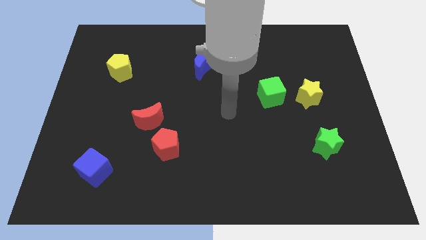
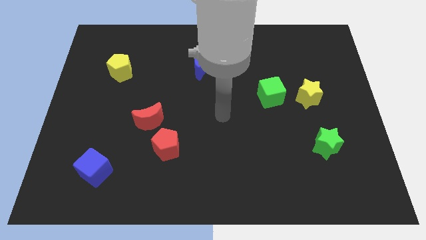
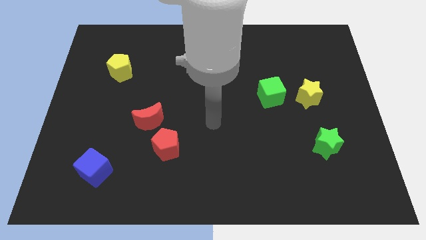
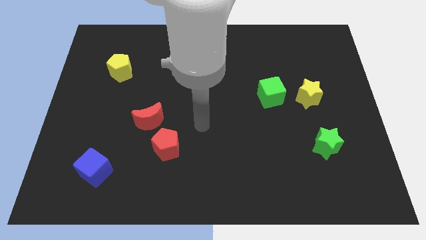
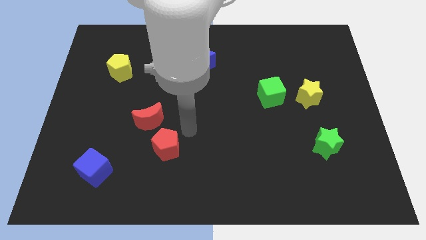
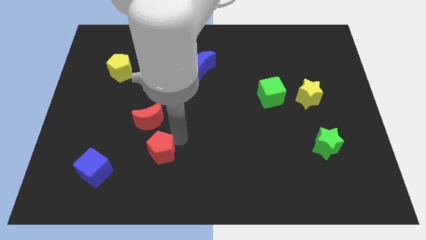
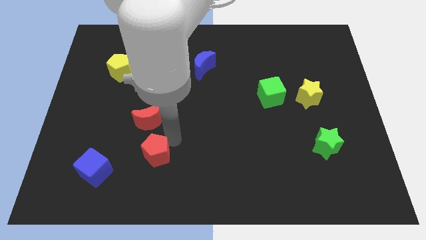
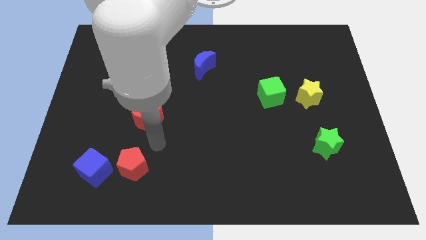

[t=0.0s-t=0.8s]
pull the red moon apart from the red pentagon

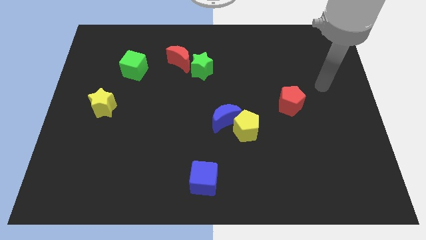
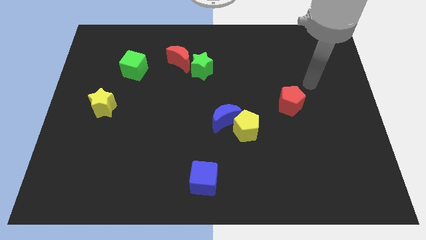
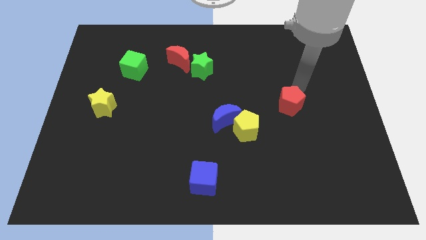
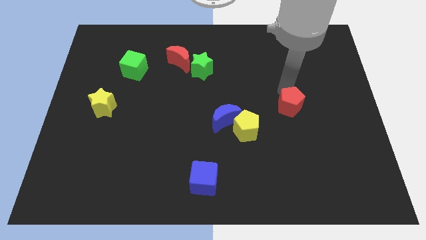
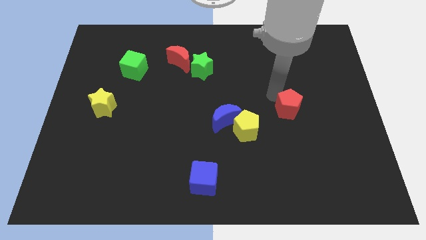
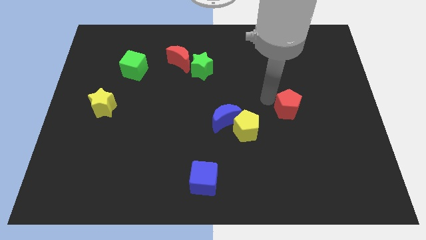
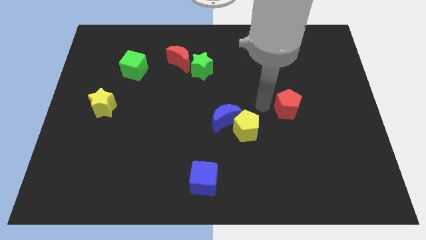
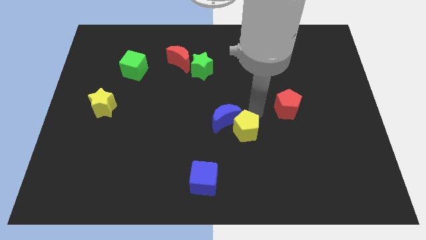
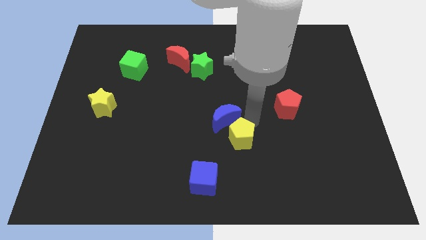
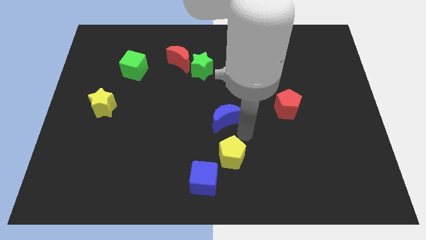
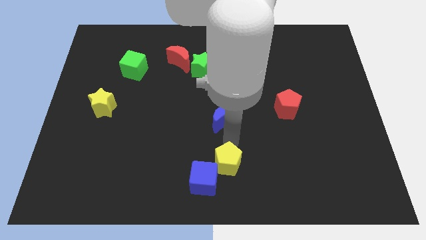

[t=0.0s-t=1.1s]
pull the blue moon apart from the yellow pentagon

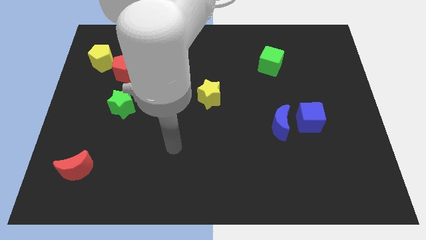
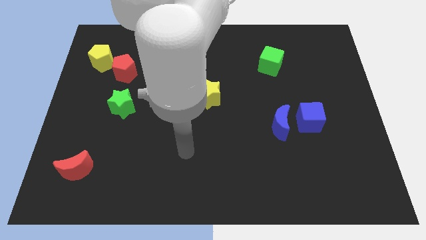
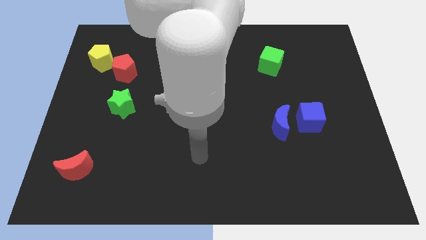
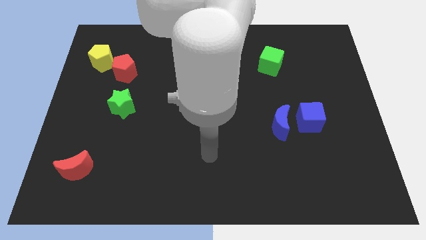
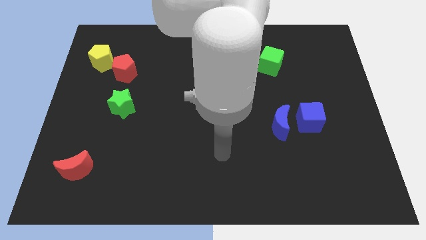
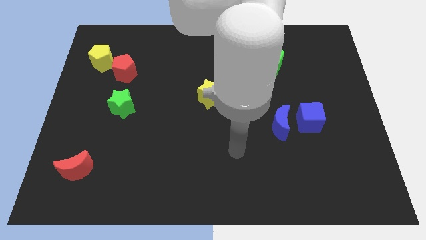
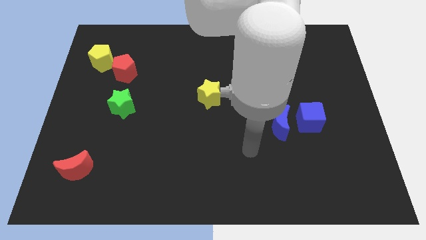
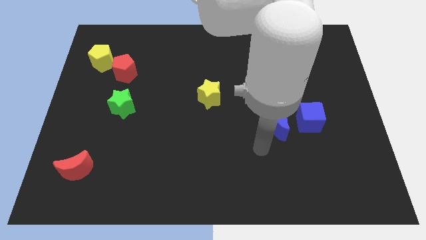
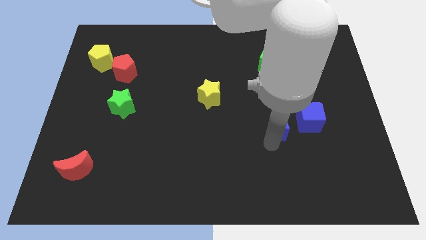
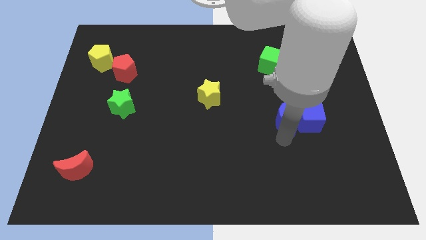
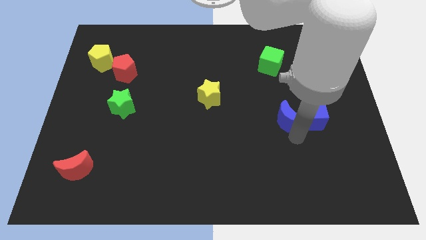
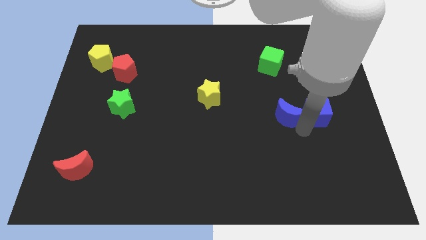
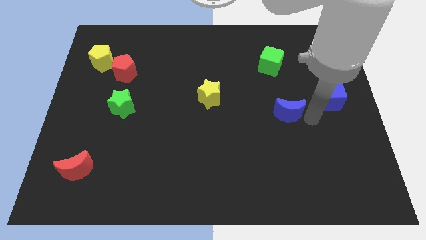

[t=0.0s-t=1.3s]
pull the blue moon apart from the blue cube

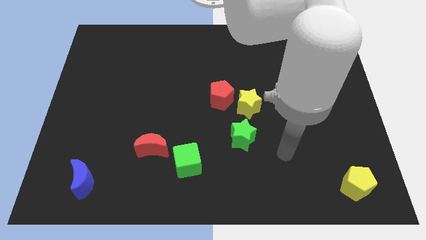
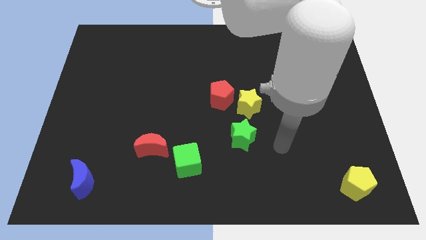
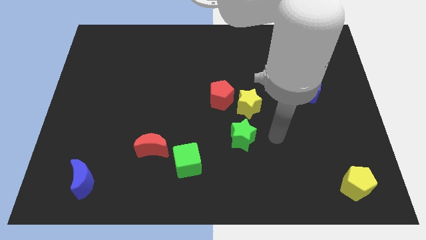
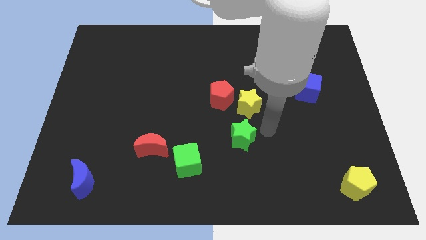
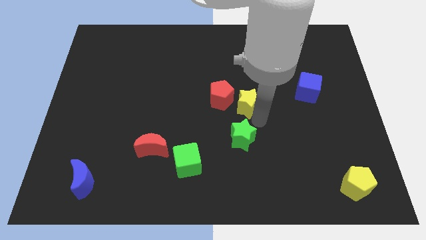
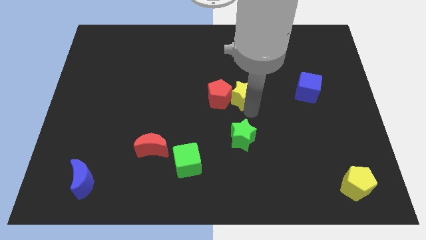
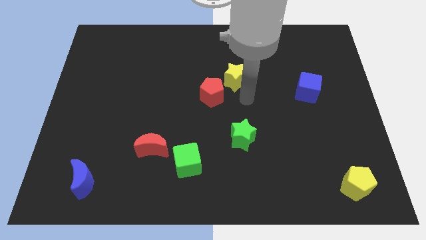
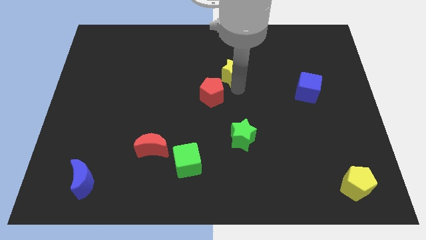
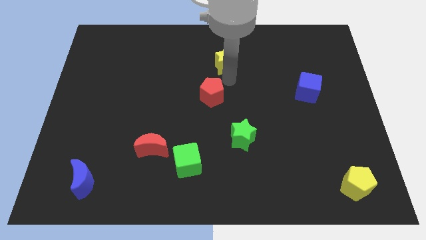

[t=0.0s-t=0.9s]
move the red pentagon away from the yellow star

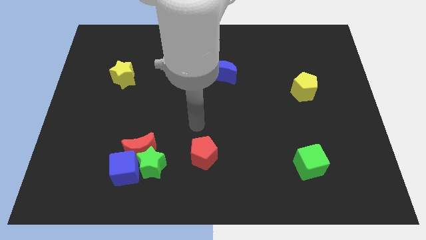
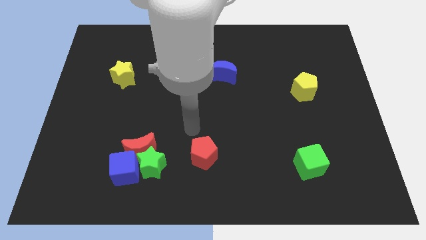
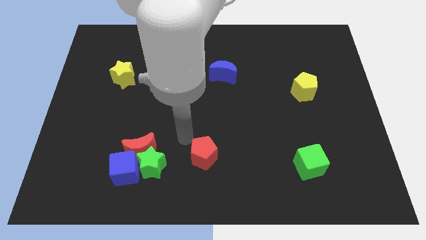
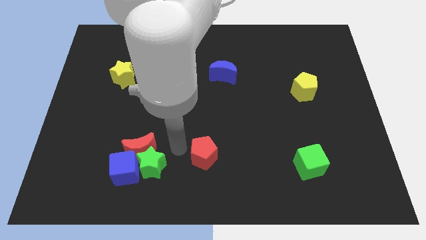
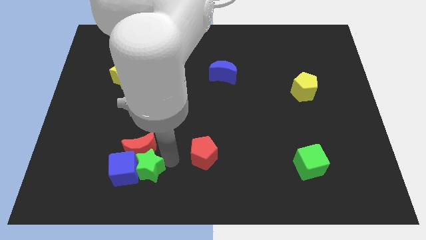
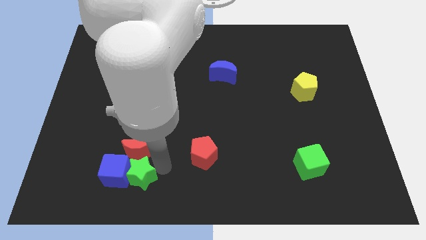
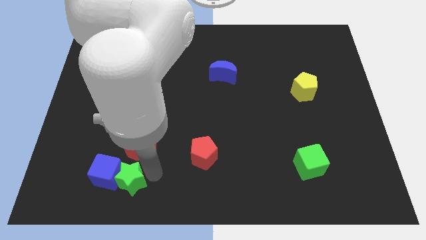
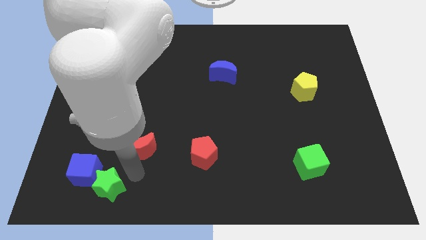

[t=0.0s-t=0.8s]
move the red moon away from the green star and blue cube

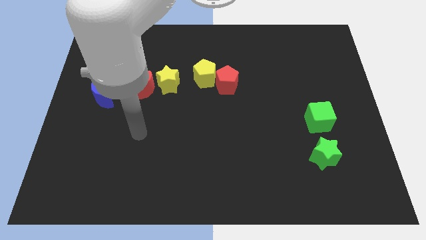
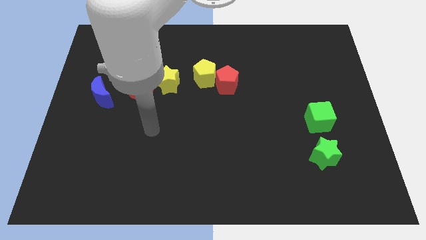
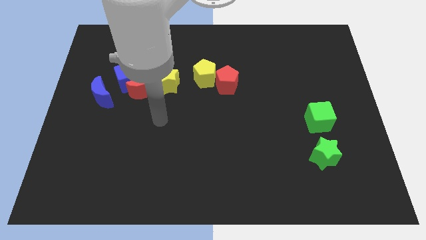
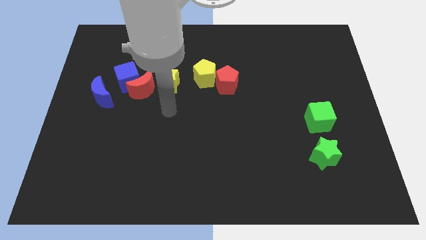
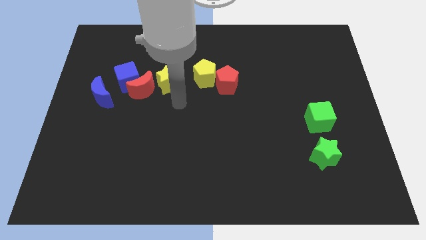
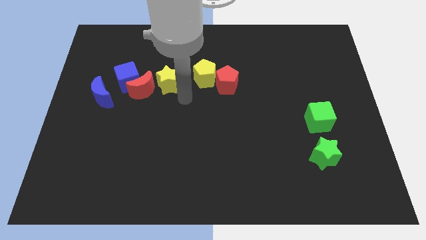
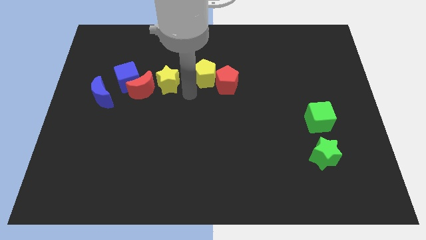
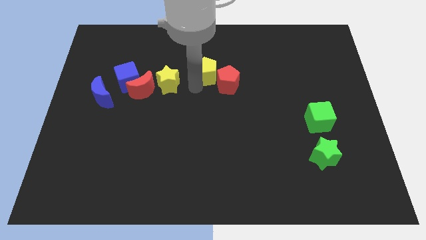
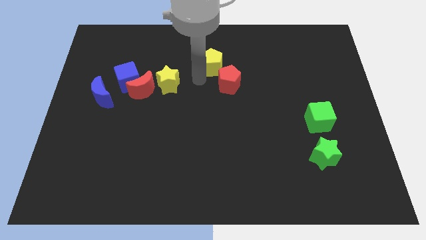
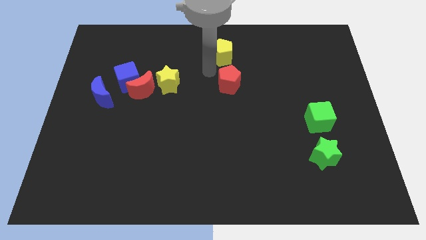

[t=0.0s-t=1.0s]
pull the red pentagon apart from the yellow pentagon

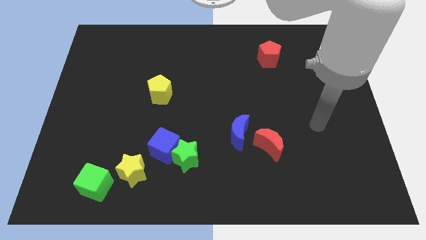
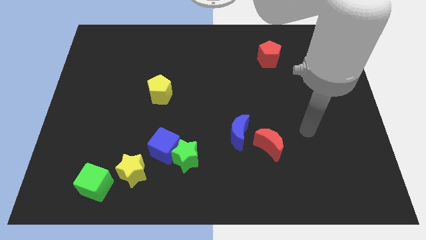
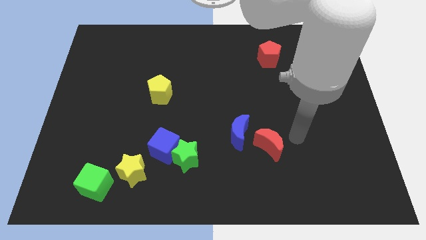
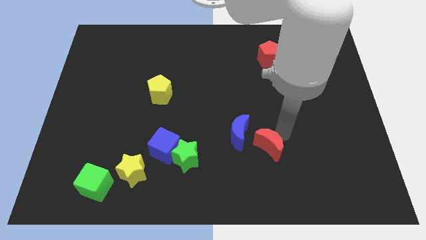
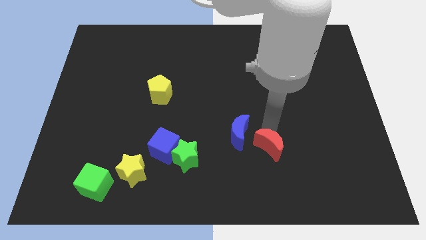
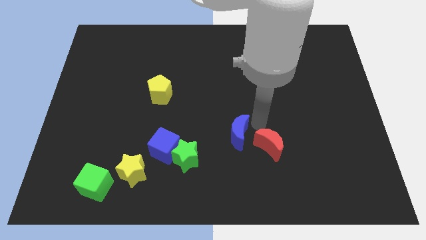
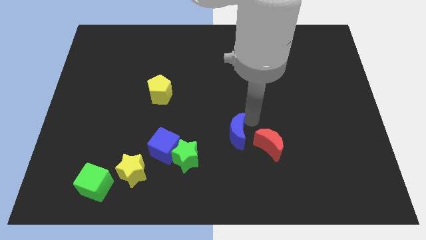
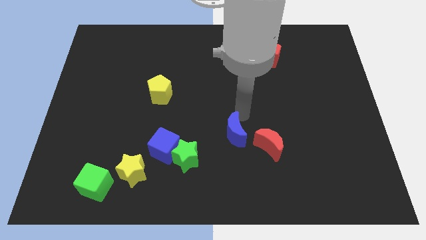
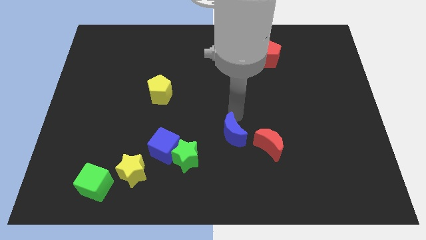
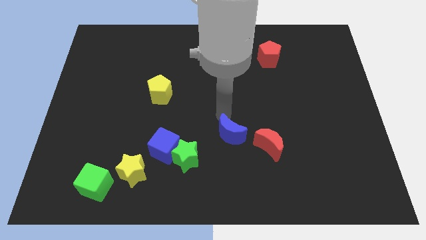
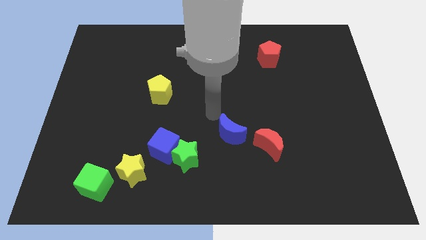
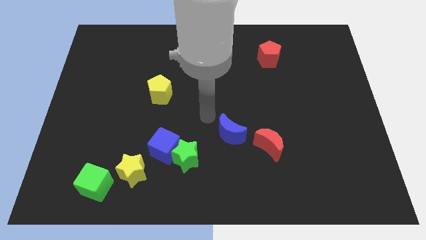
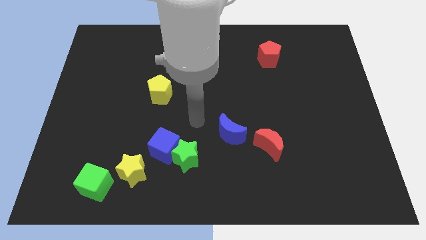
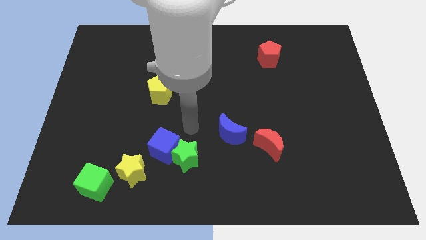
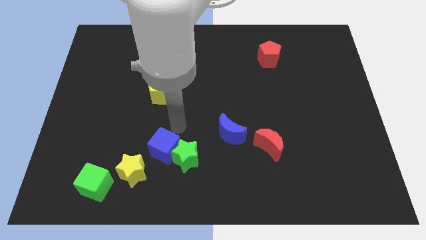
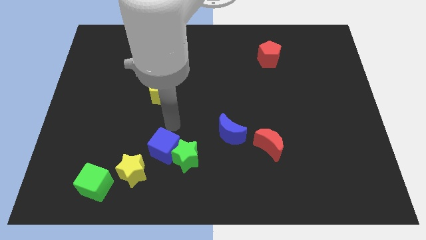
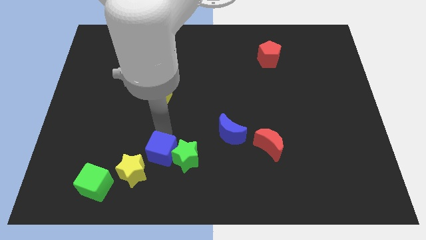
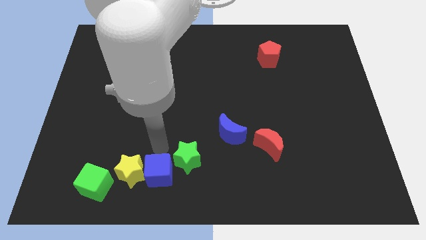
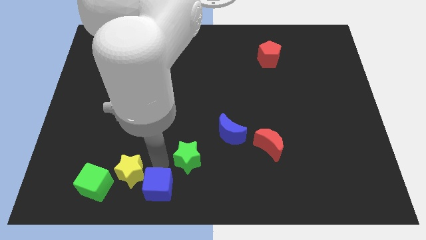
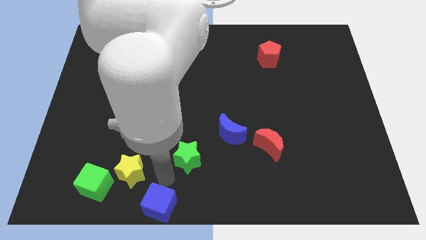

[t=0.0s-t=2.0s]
separate the green star from the blue cube

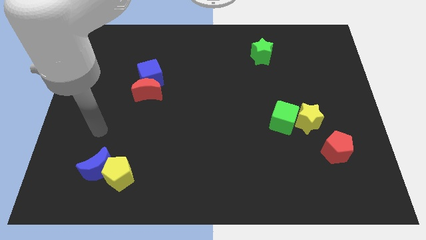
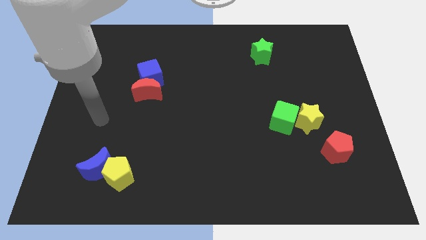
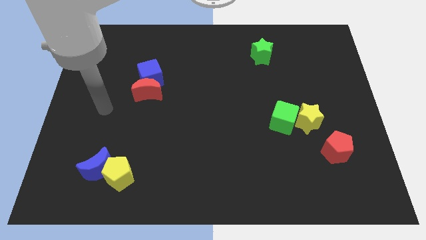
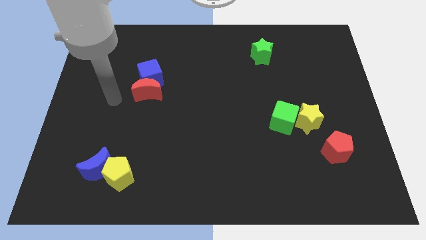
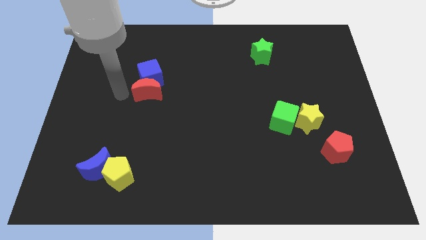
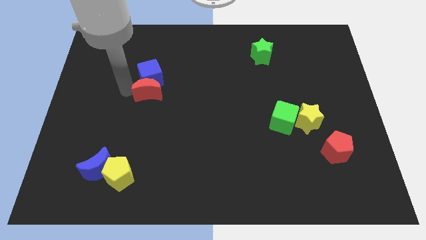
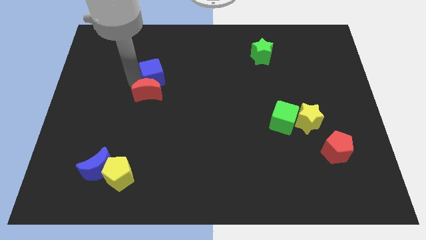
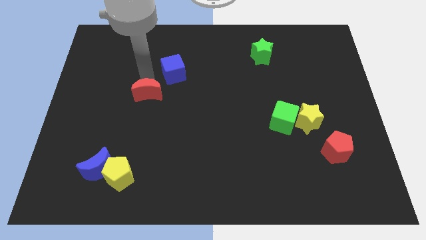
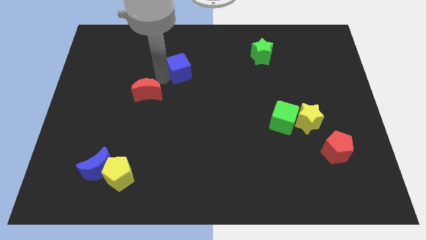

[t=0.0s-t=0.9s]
pull the red moon apart from the blue cube

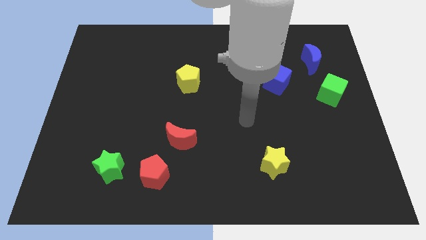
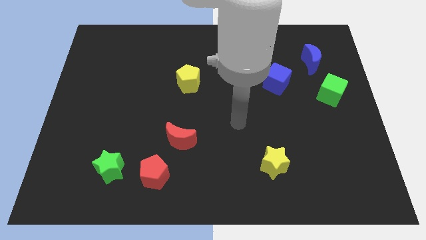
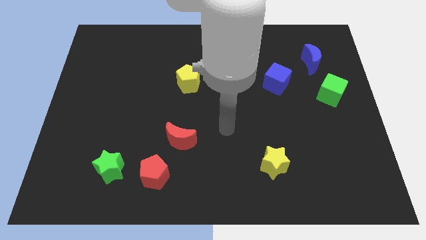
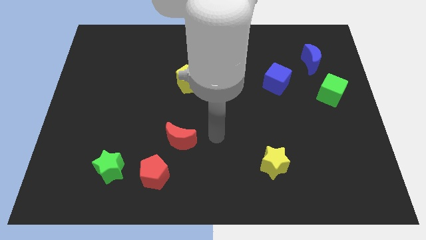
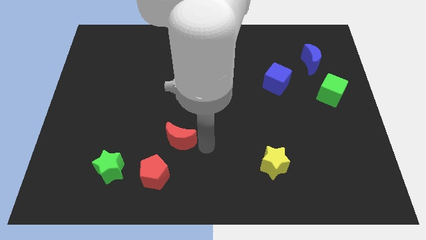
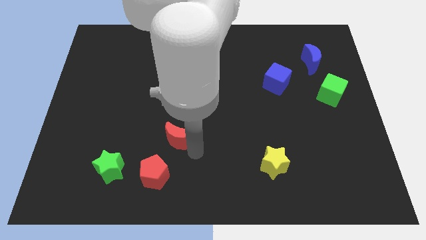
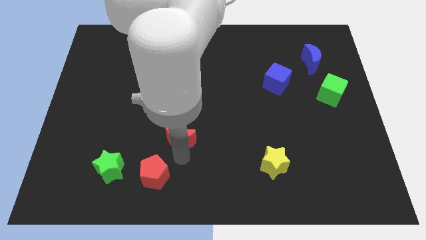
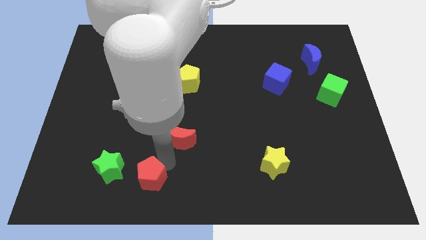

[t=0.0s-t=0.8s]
separate the red moon from the red pentagon
